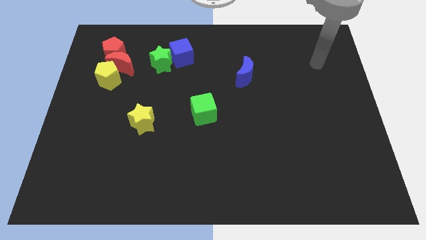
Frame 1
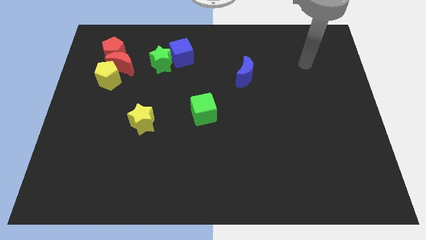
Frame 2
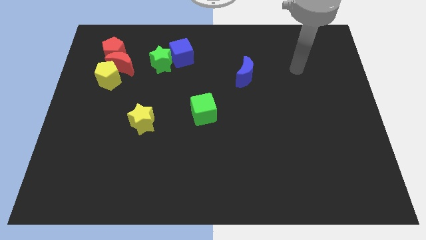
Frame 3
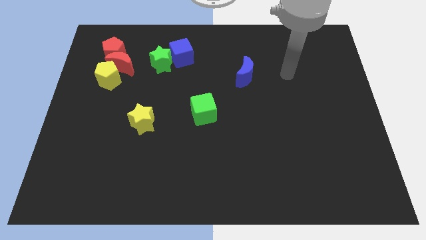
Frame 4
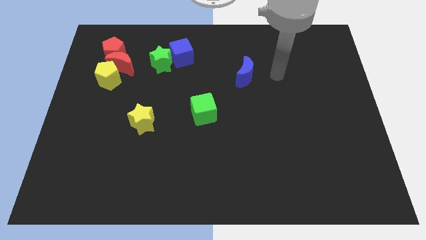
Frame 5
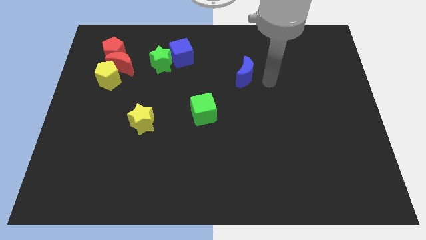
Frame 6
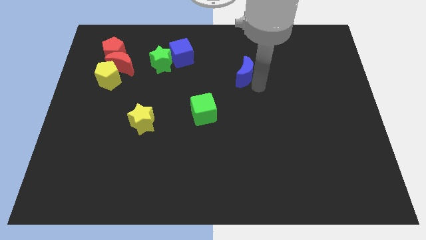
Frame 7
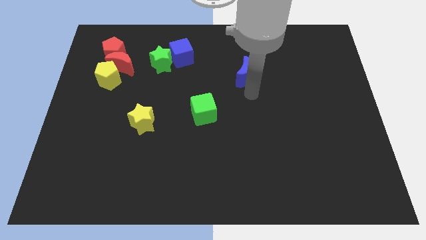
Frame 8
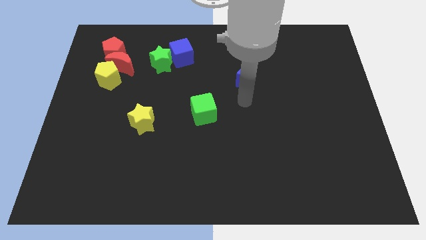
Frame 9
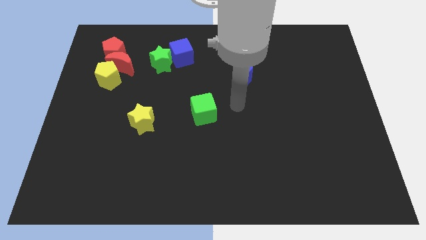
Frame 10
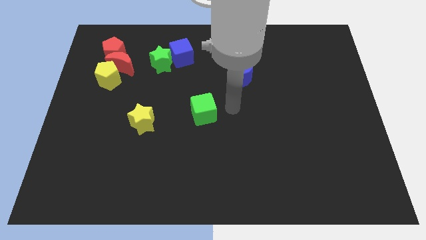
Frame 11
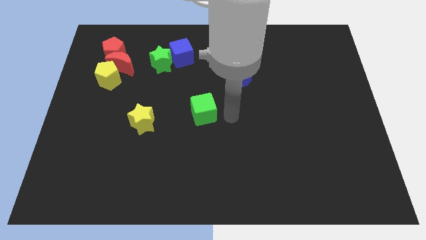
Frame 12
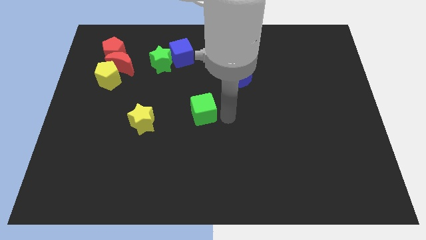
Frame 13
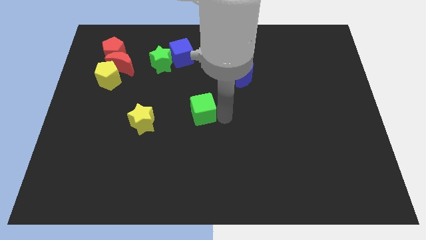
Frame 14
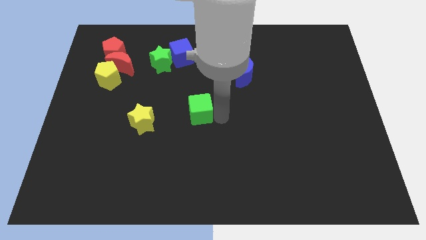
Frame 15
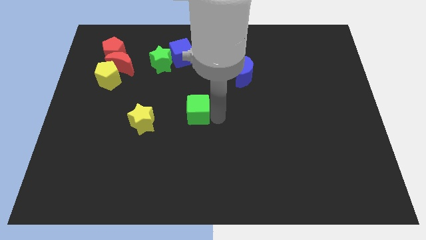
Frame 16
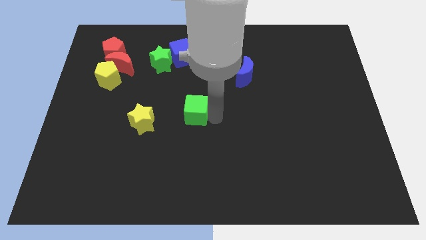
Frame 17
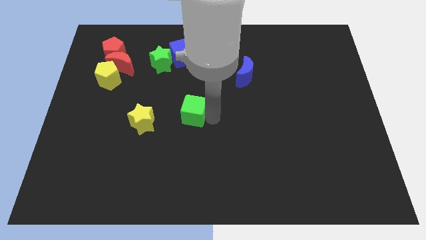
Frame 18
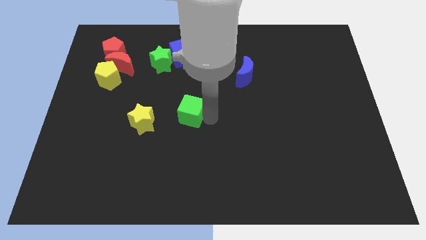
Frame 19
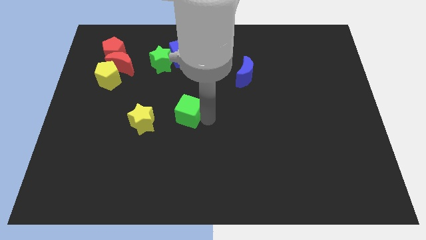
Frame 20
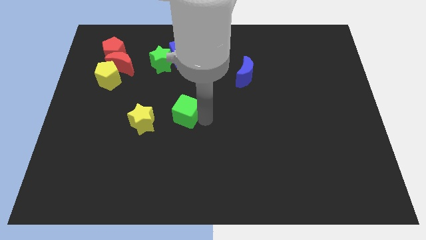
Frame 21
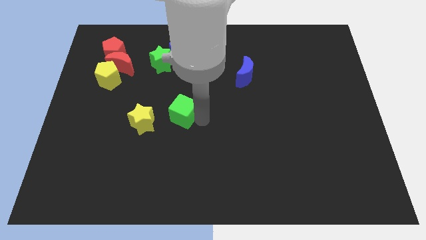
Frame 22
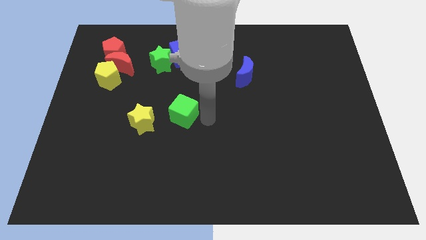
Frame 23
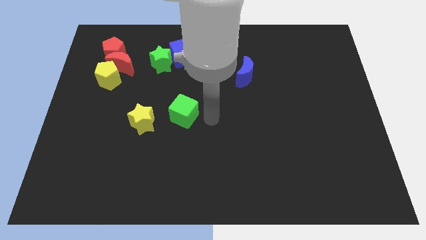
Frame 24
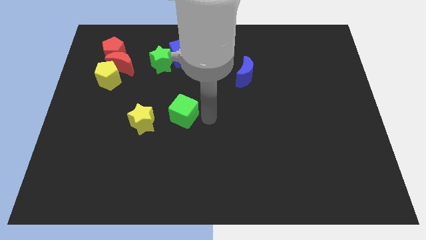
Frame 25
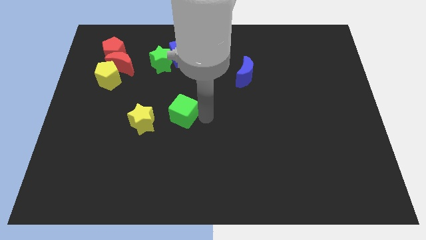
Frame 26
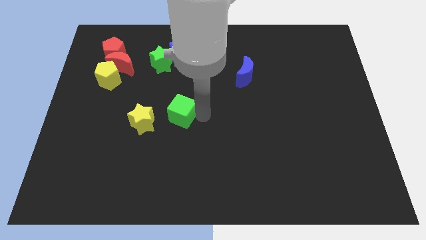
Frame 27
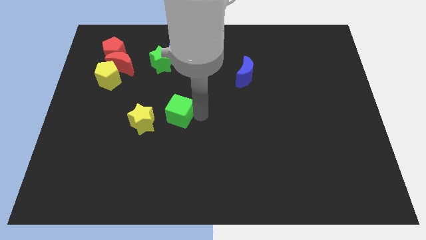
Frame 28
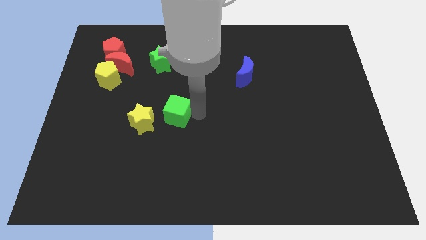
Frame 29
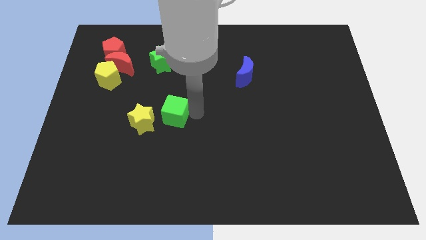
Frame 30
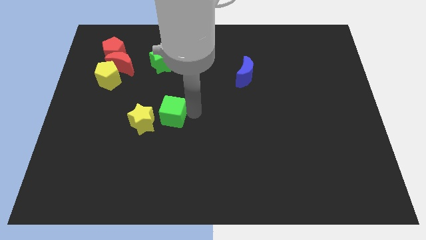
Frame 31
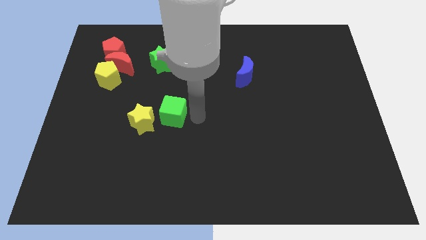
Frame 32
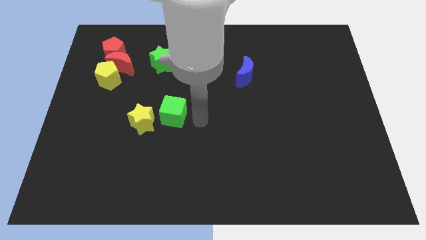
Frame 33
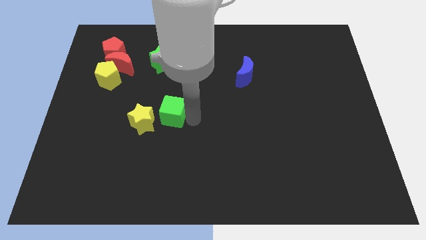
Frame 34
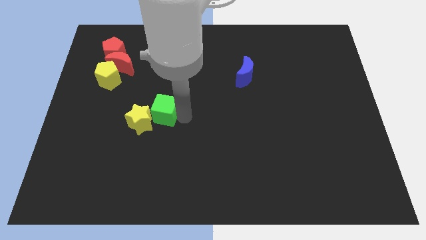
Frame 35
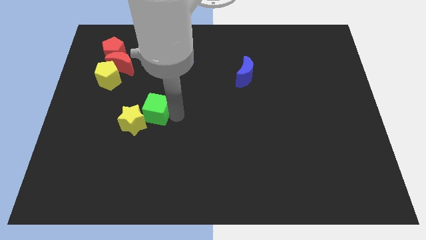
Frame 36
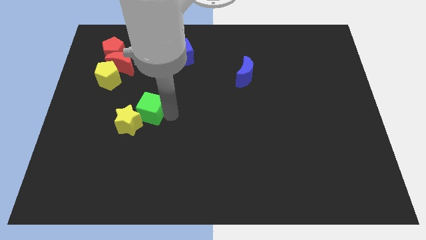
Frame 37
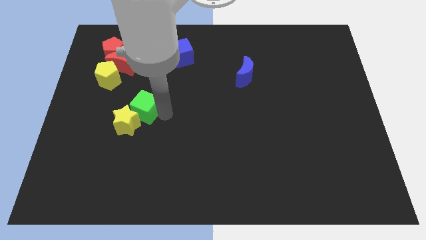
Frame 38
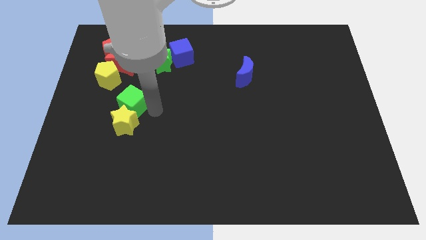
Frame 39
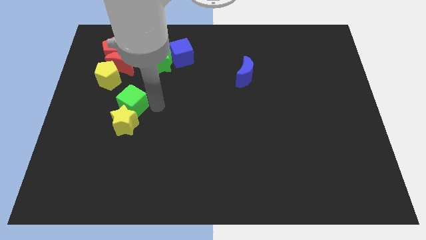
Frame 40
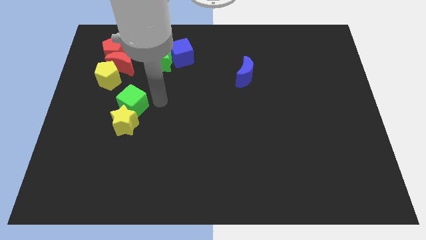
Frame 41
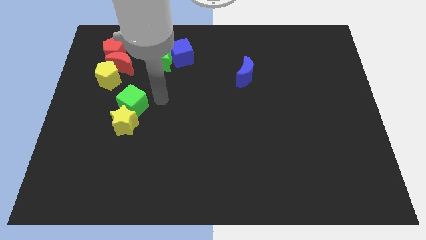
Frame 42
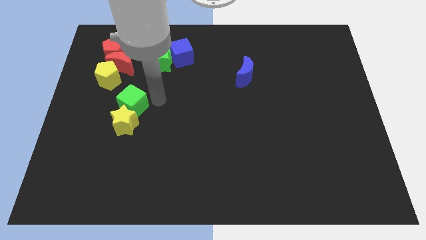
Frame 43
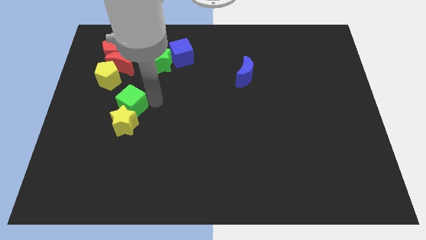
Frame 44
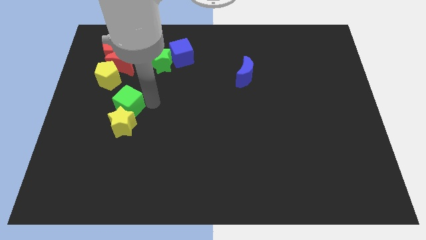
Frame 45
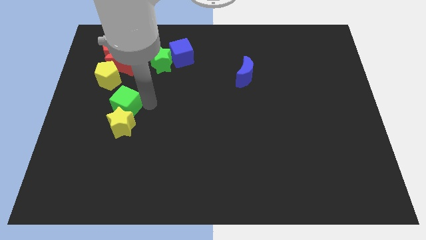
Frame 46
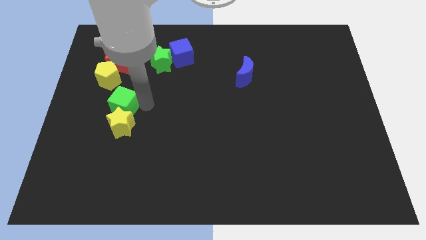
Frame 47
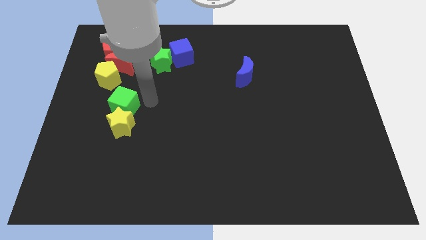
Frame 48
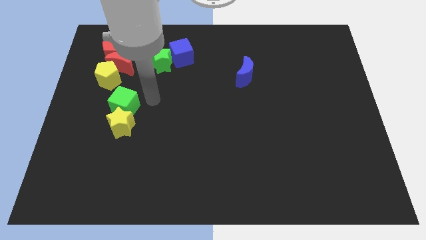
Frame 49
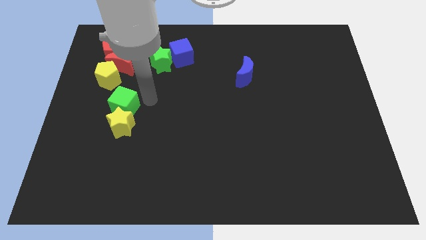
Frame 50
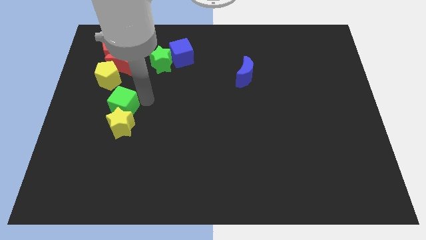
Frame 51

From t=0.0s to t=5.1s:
push the green cube below the yellow pentagon

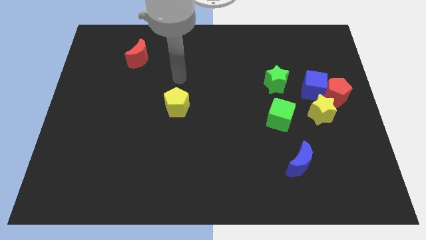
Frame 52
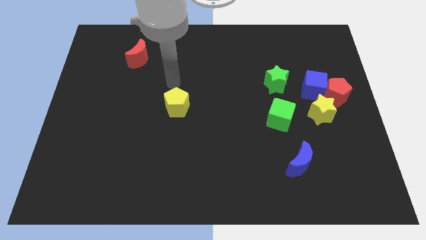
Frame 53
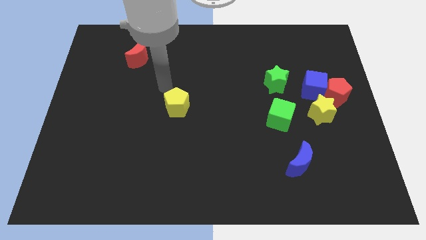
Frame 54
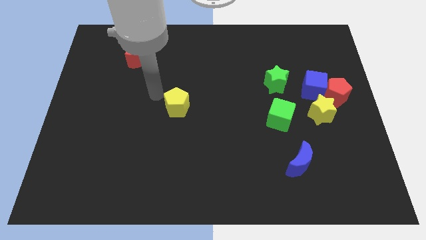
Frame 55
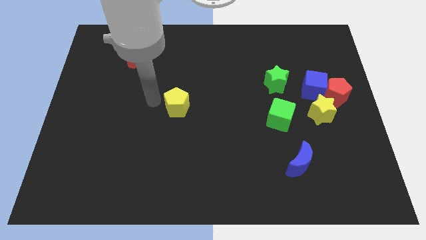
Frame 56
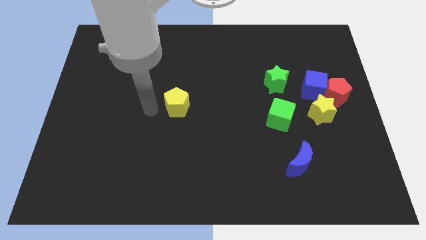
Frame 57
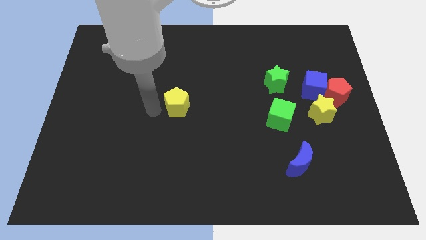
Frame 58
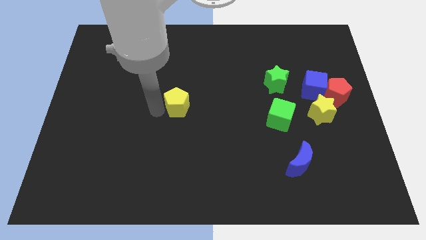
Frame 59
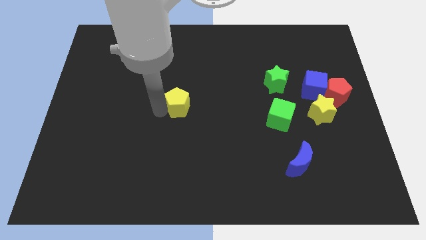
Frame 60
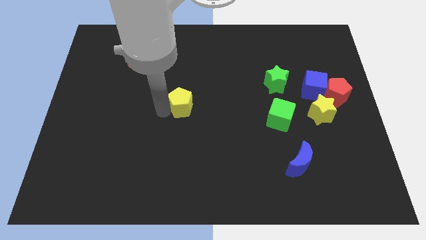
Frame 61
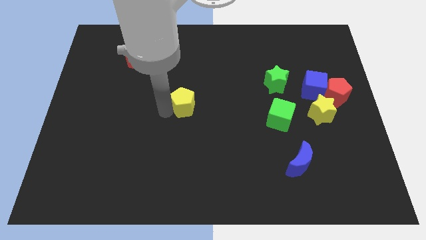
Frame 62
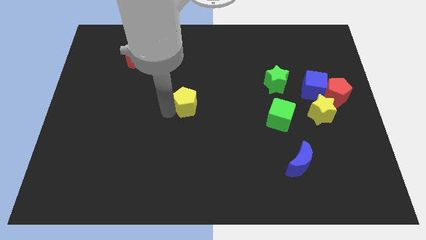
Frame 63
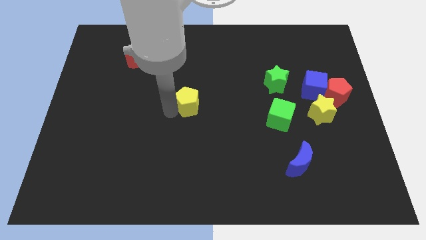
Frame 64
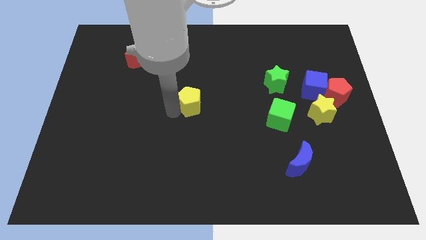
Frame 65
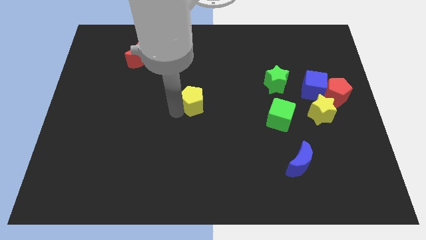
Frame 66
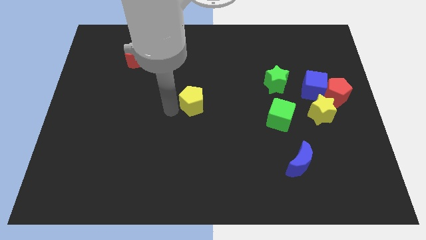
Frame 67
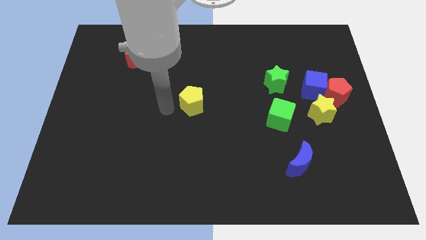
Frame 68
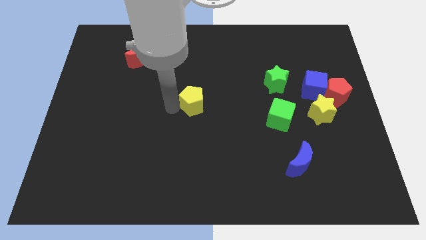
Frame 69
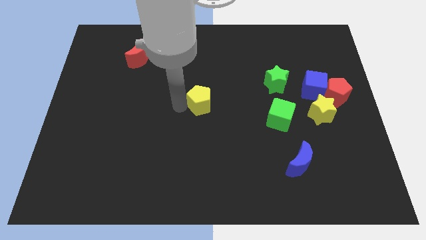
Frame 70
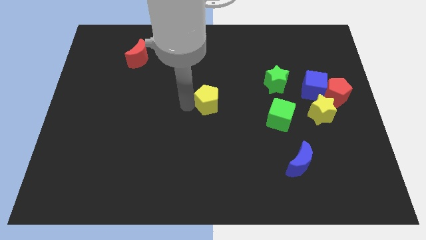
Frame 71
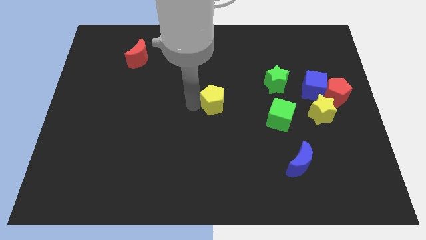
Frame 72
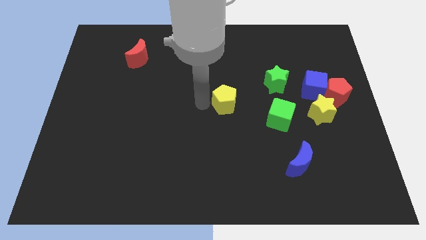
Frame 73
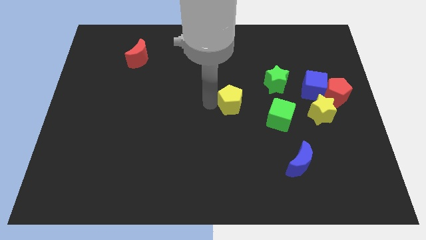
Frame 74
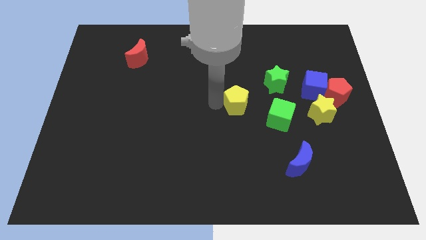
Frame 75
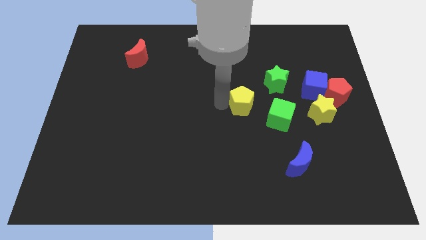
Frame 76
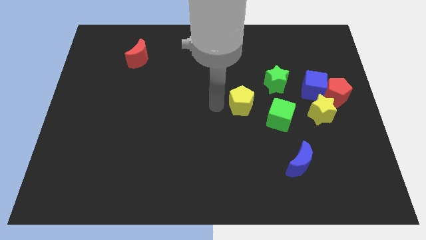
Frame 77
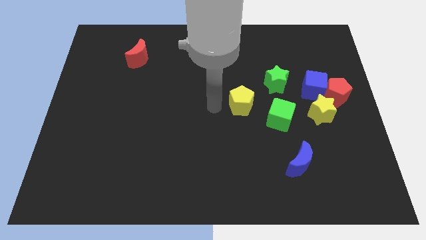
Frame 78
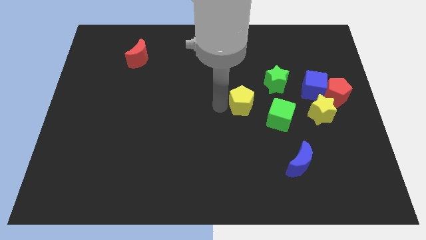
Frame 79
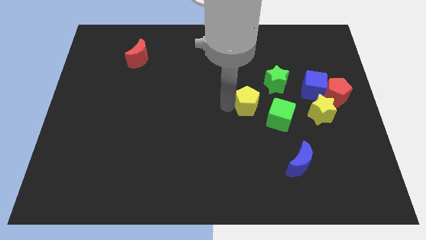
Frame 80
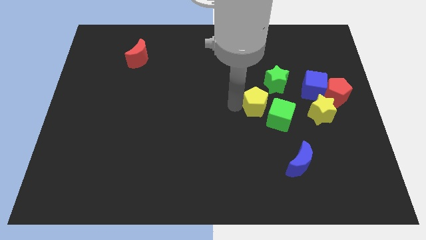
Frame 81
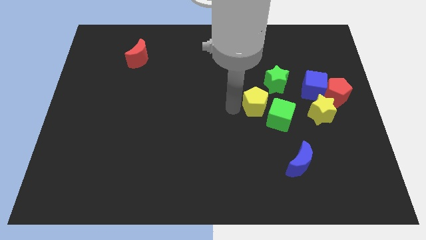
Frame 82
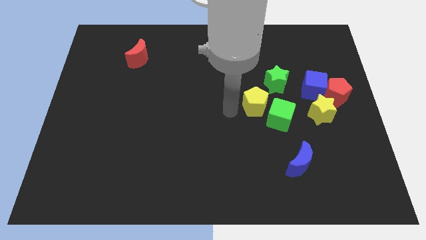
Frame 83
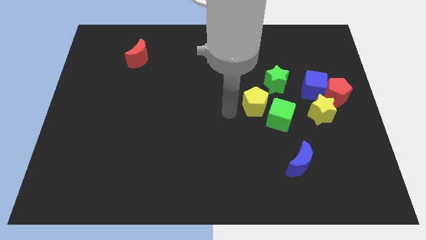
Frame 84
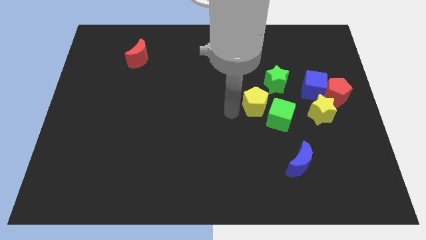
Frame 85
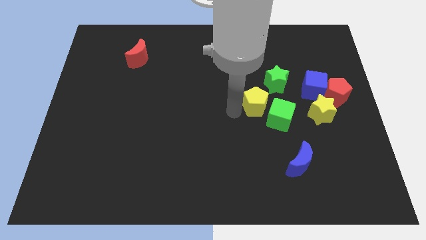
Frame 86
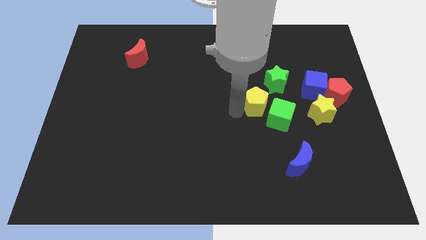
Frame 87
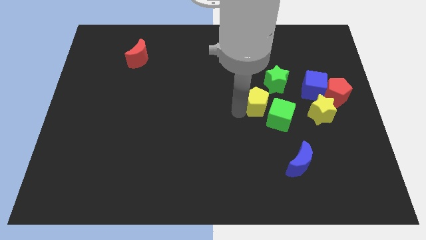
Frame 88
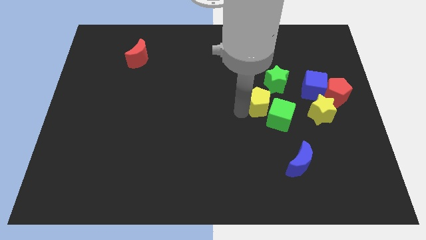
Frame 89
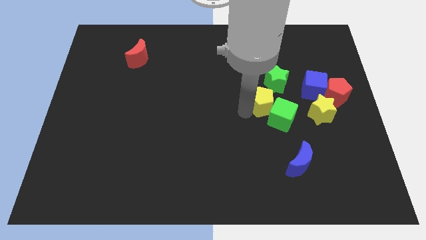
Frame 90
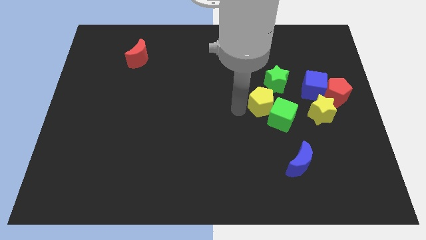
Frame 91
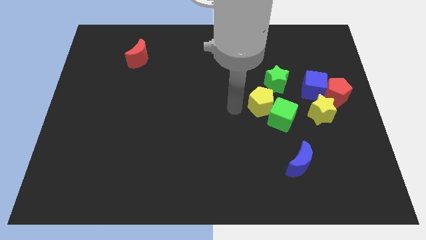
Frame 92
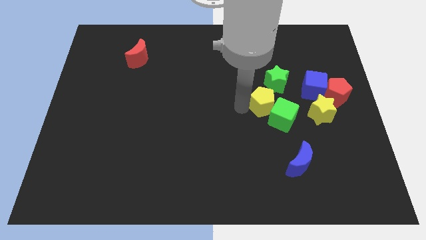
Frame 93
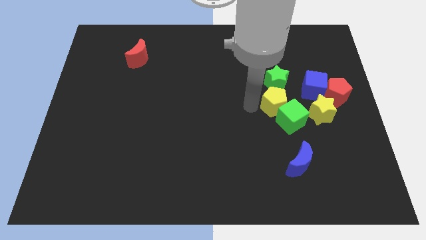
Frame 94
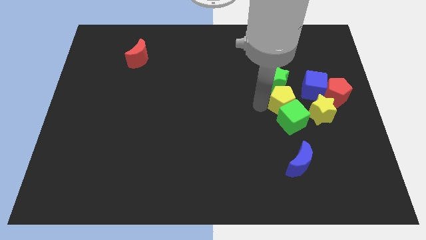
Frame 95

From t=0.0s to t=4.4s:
put the yellow pentagon to the top right of the green cube
